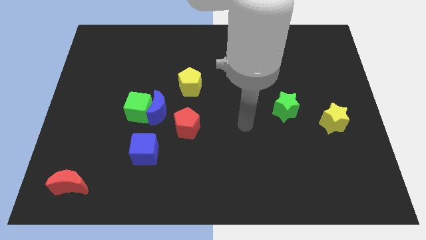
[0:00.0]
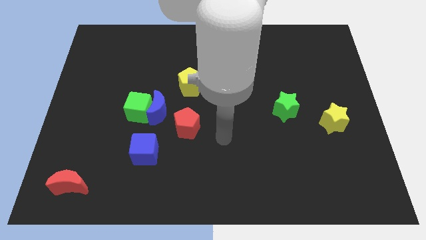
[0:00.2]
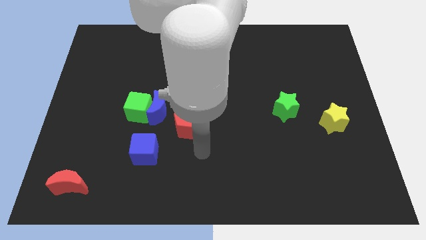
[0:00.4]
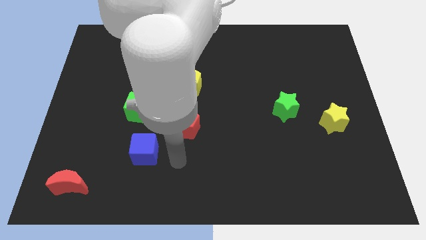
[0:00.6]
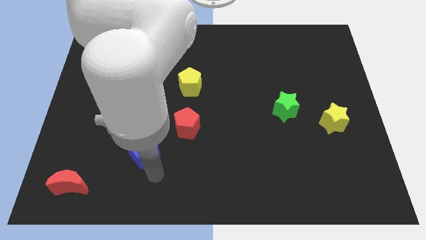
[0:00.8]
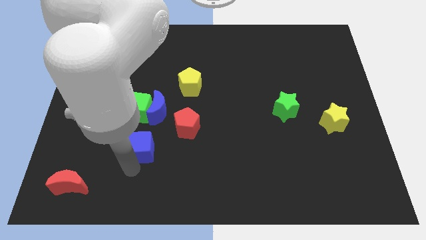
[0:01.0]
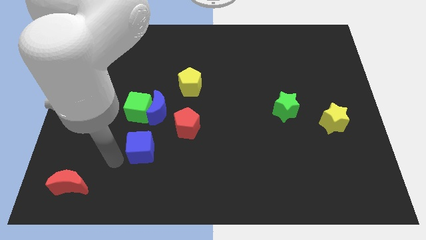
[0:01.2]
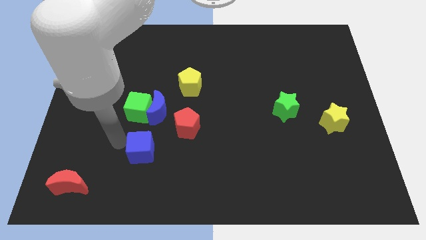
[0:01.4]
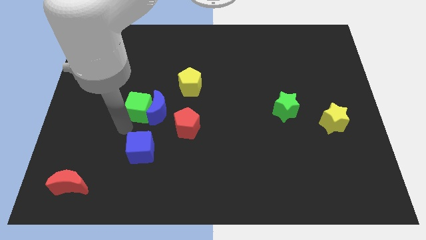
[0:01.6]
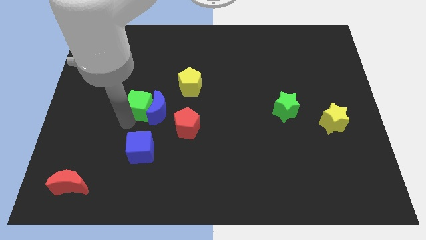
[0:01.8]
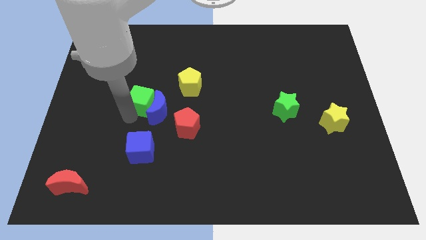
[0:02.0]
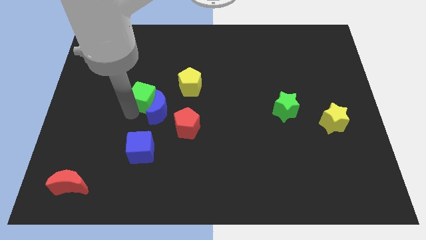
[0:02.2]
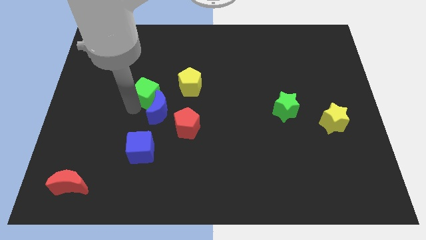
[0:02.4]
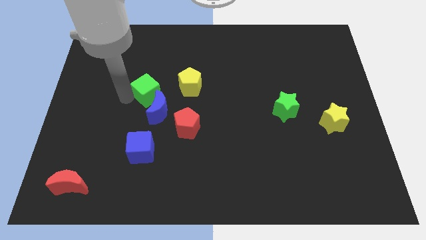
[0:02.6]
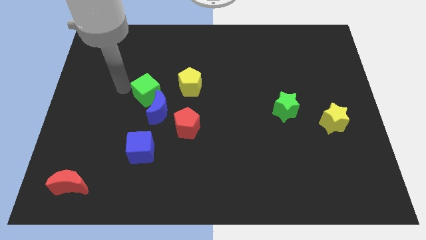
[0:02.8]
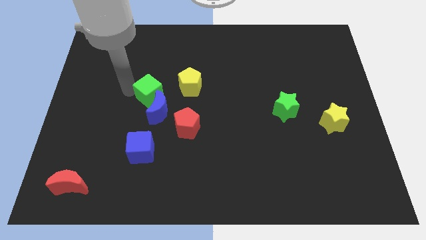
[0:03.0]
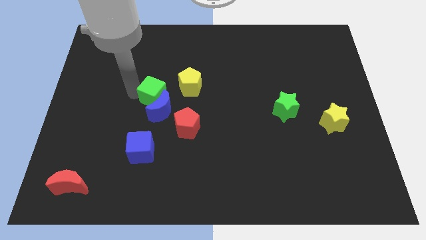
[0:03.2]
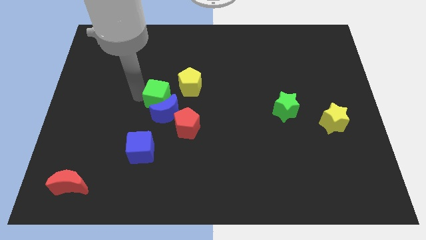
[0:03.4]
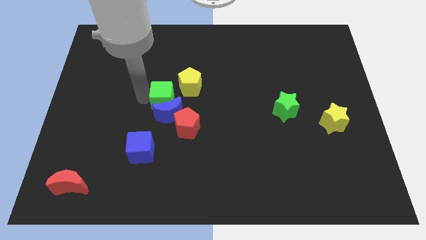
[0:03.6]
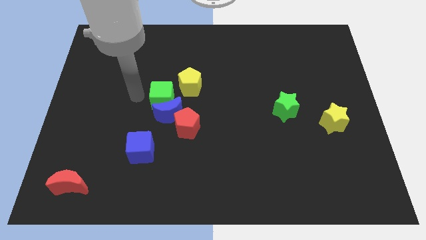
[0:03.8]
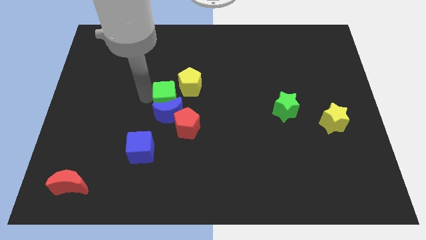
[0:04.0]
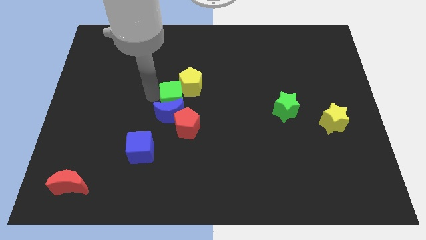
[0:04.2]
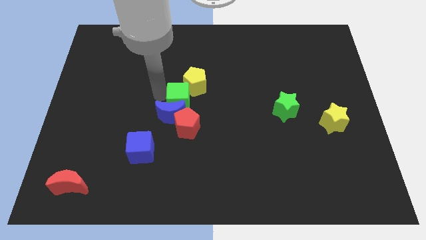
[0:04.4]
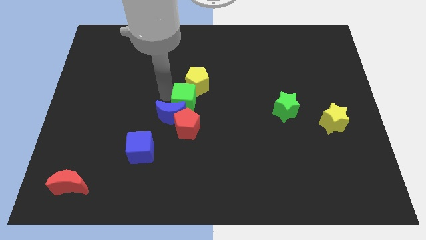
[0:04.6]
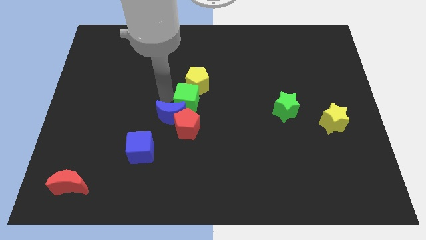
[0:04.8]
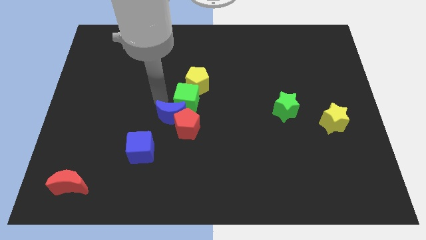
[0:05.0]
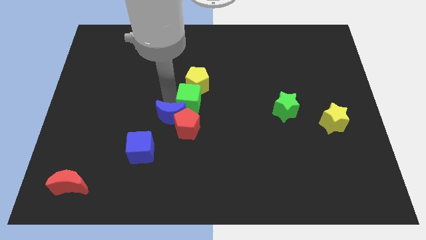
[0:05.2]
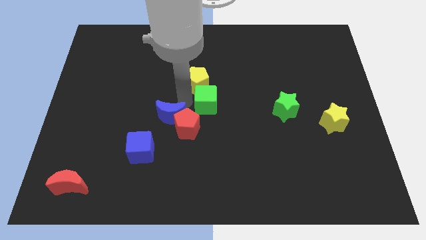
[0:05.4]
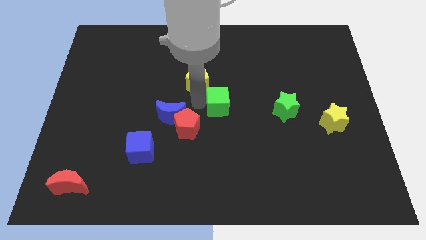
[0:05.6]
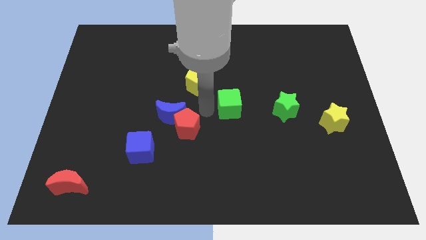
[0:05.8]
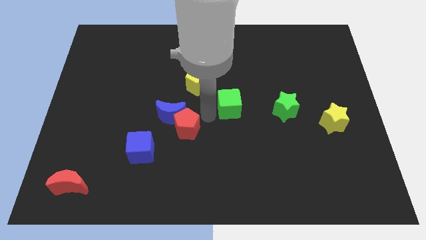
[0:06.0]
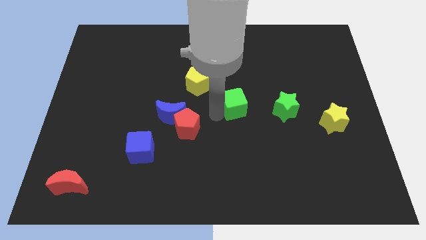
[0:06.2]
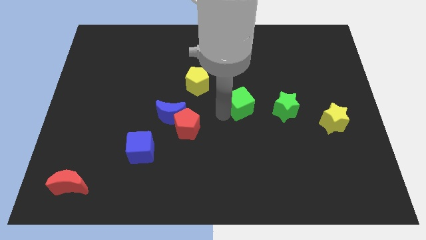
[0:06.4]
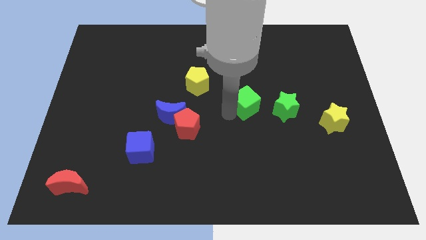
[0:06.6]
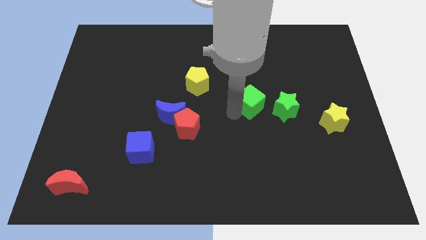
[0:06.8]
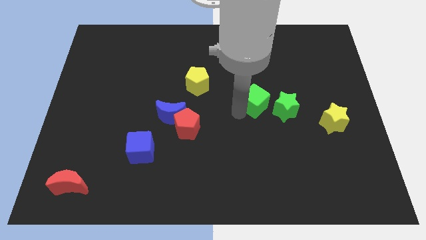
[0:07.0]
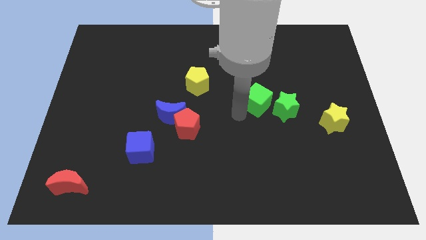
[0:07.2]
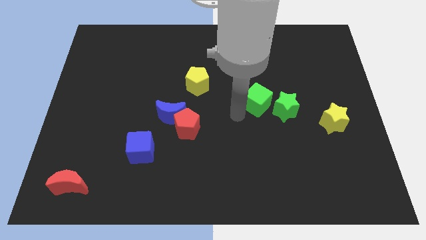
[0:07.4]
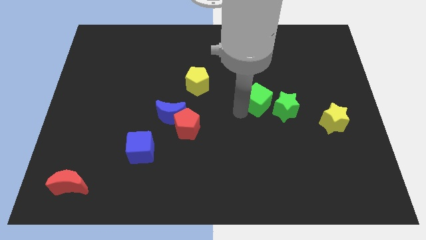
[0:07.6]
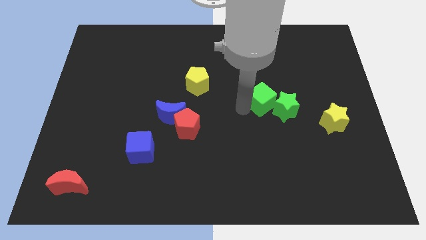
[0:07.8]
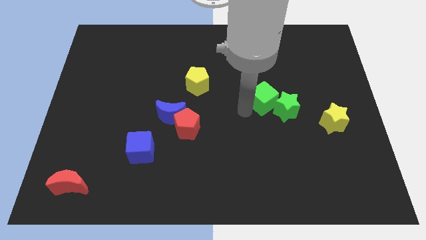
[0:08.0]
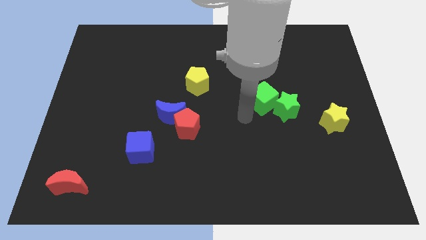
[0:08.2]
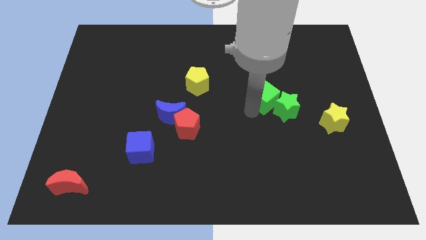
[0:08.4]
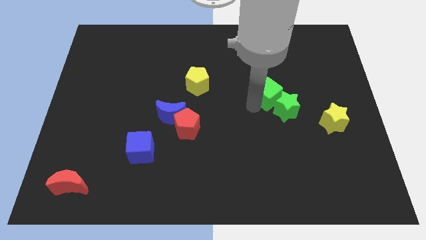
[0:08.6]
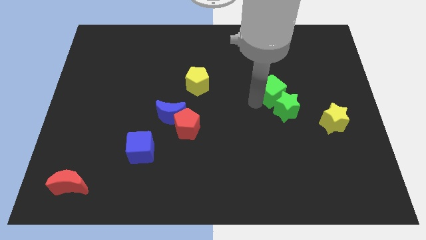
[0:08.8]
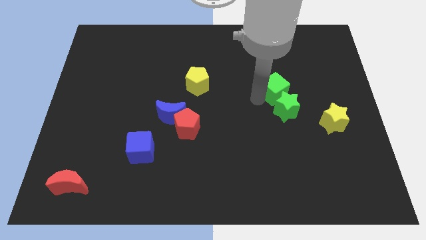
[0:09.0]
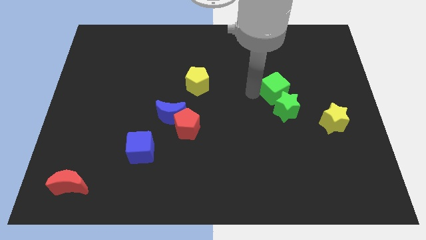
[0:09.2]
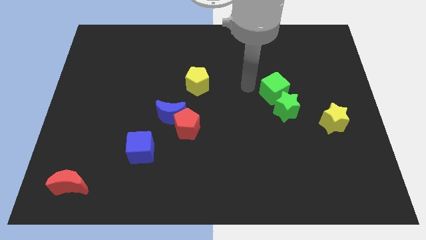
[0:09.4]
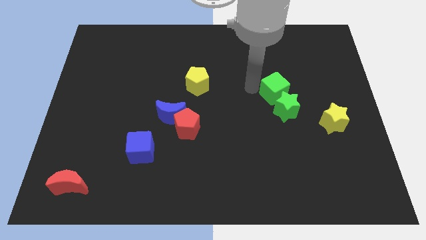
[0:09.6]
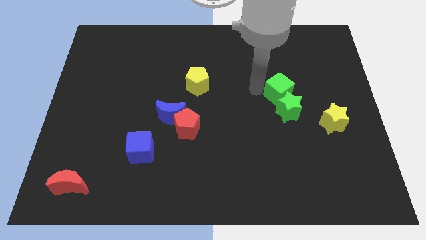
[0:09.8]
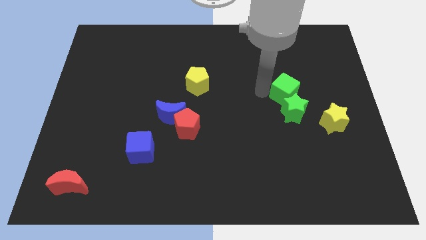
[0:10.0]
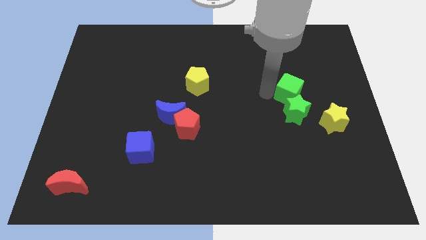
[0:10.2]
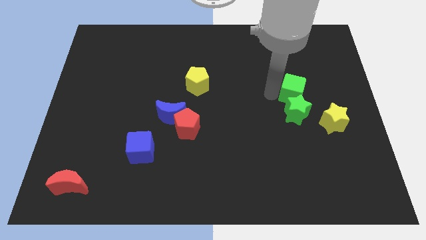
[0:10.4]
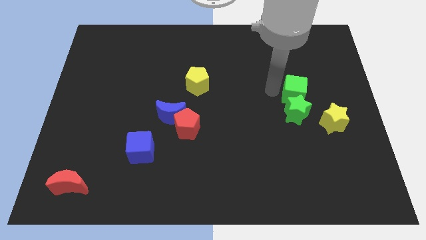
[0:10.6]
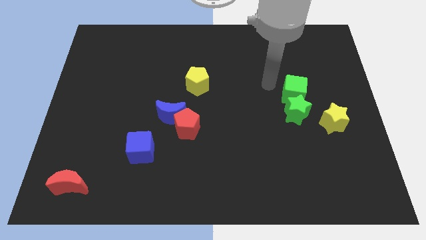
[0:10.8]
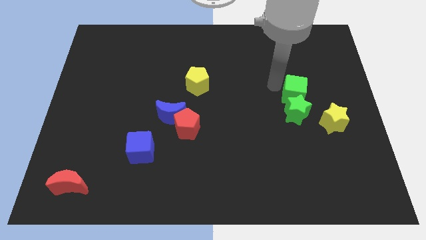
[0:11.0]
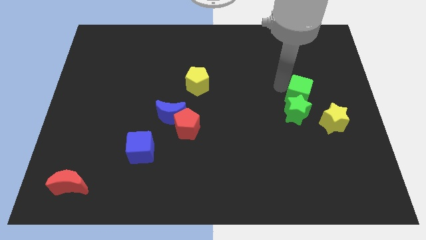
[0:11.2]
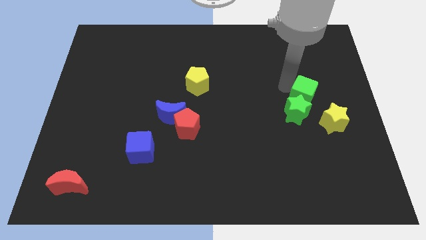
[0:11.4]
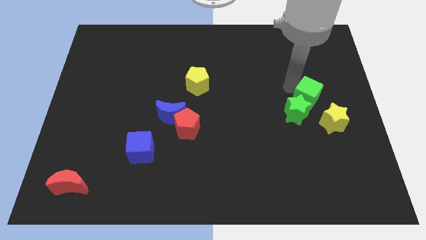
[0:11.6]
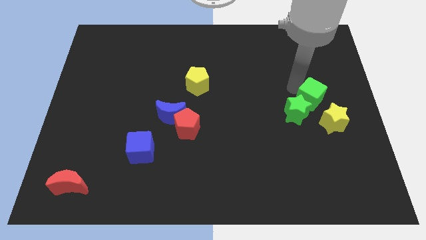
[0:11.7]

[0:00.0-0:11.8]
push the green cube just right of the green star

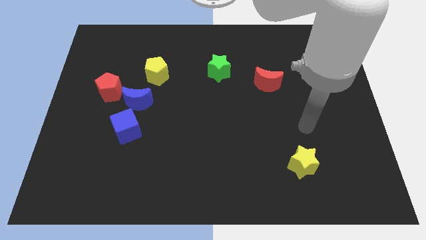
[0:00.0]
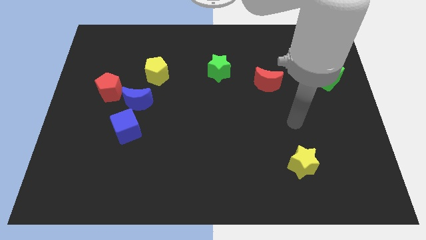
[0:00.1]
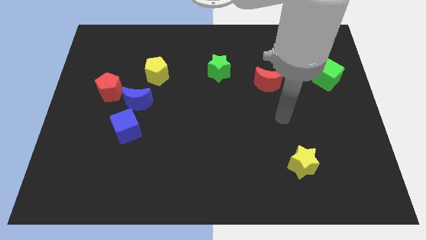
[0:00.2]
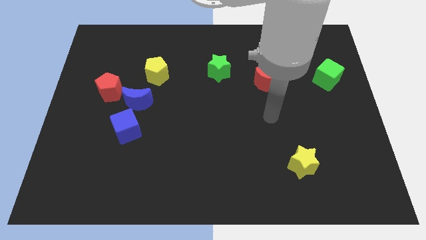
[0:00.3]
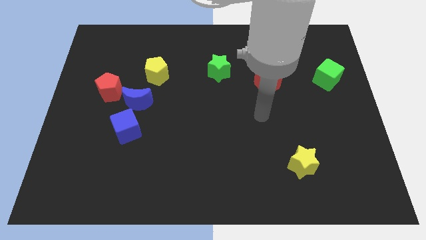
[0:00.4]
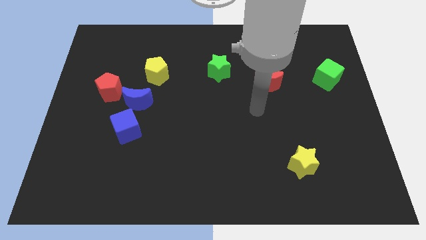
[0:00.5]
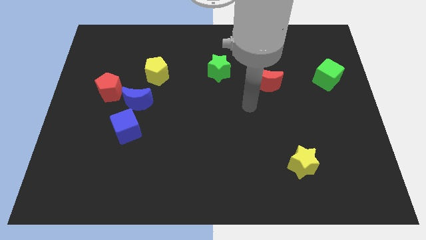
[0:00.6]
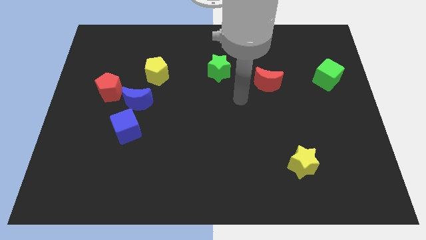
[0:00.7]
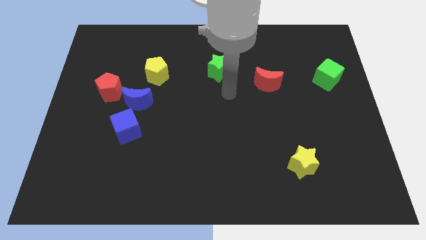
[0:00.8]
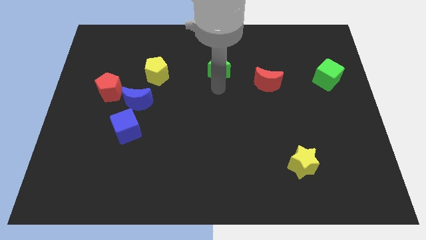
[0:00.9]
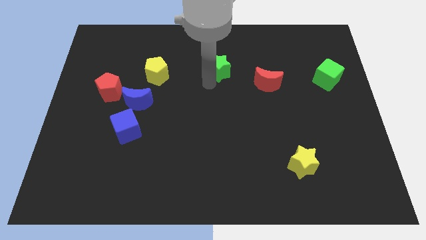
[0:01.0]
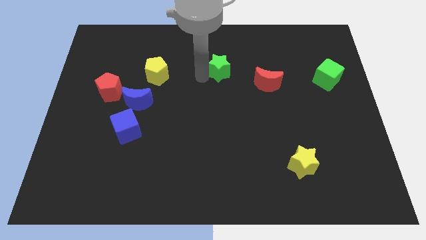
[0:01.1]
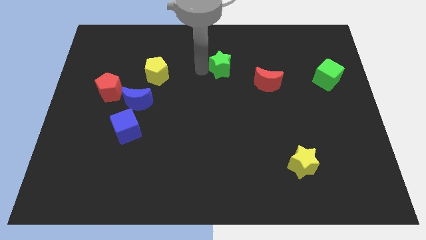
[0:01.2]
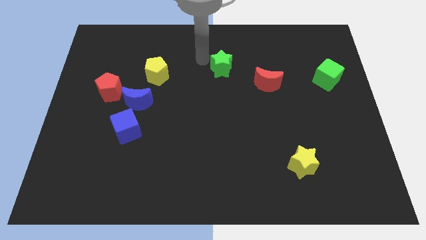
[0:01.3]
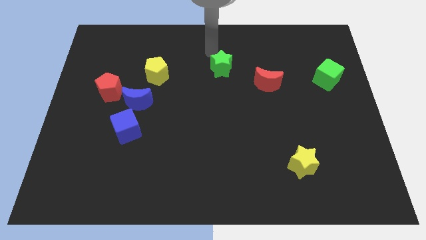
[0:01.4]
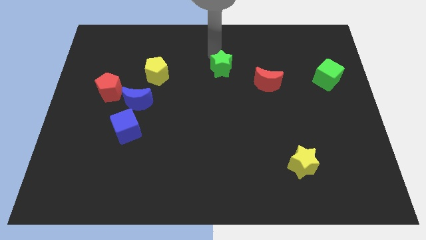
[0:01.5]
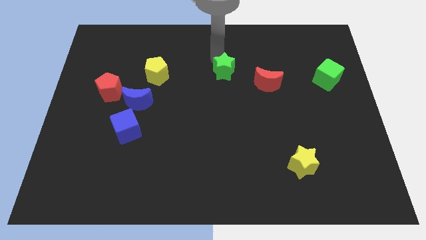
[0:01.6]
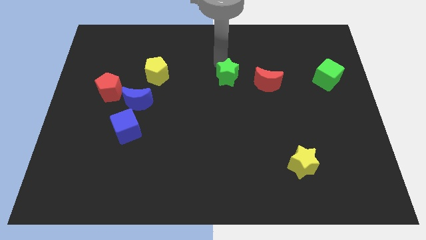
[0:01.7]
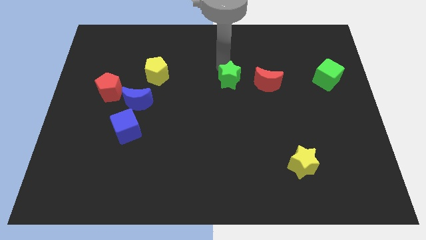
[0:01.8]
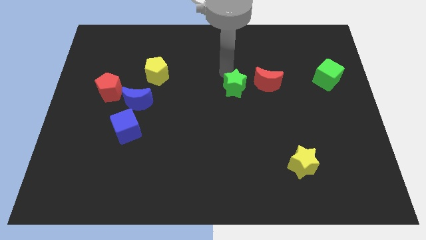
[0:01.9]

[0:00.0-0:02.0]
push the green star to the bottom left side of the red moon

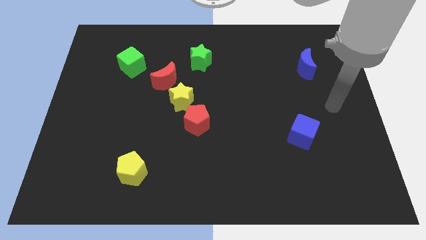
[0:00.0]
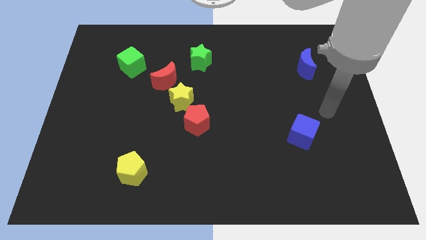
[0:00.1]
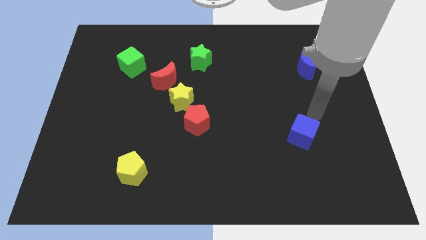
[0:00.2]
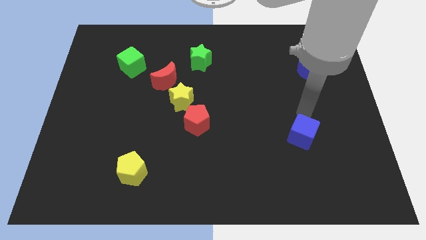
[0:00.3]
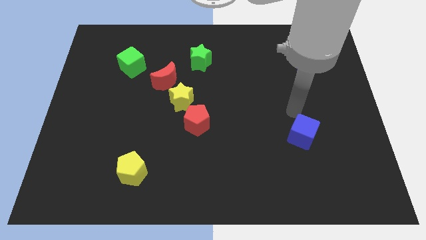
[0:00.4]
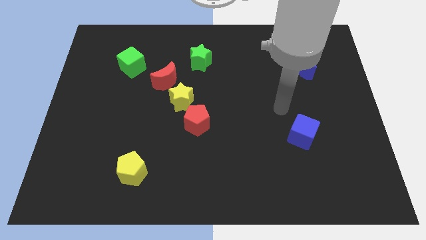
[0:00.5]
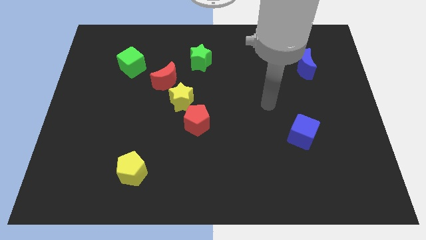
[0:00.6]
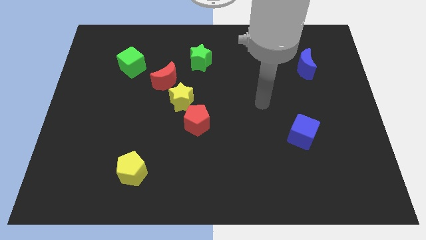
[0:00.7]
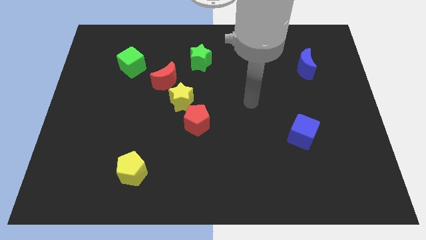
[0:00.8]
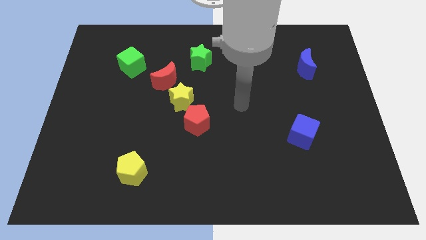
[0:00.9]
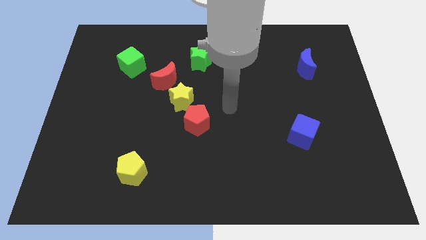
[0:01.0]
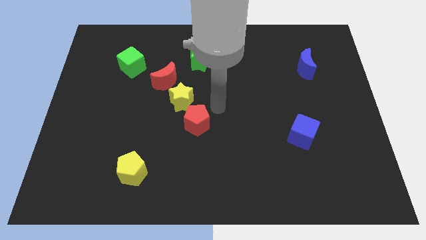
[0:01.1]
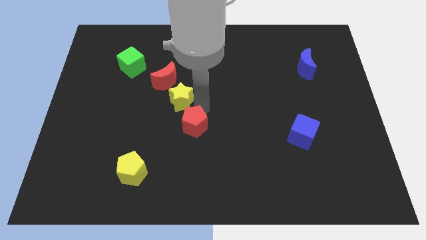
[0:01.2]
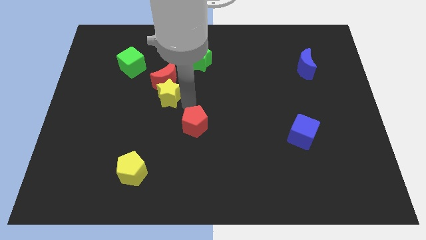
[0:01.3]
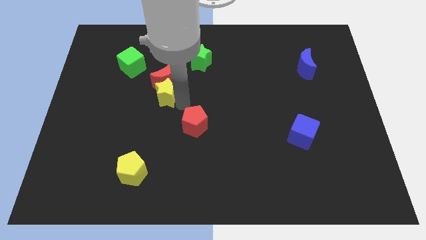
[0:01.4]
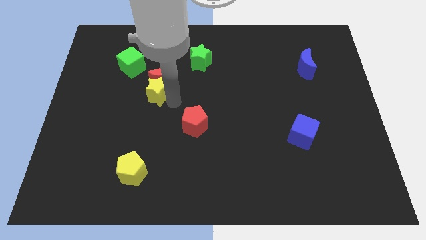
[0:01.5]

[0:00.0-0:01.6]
put the red moon to the right of the green cube
